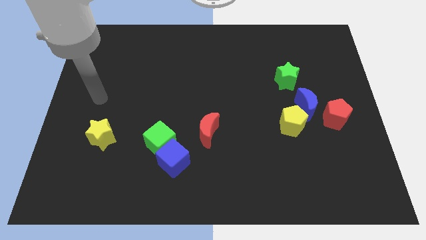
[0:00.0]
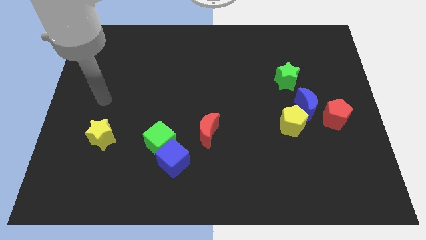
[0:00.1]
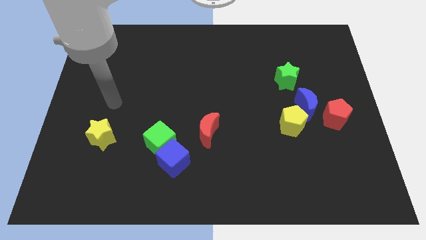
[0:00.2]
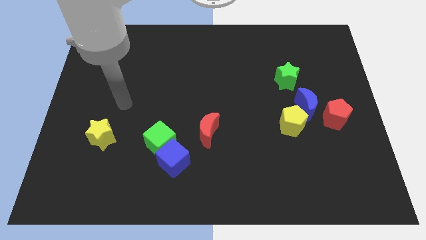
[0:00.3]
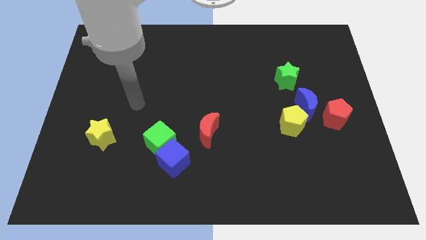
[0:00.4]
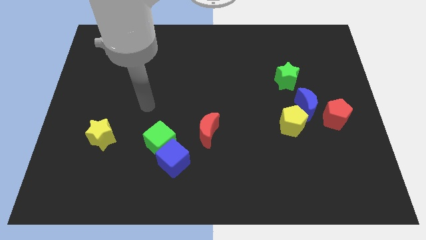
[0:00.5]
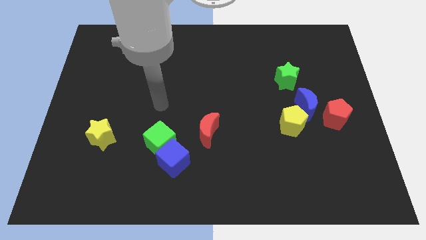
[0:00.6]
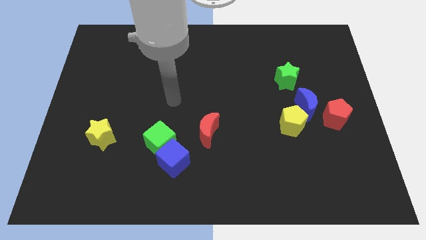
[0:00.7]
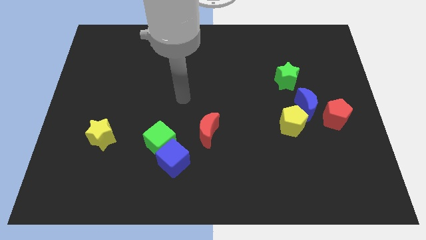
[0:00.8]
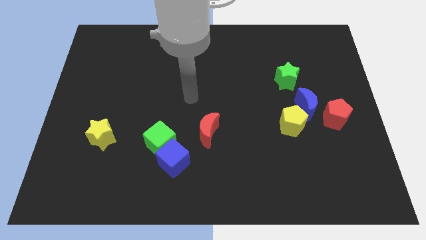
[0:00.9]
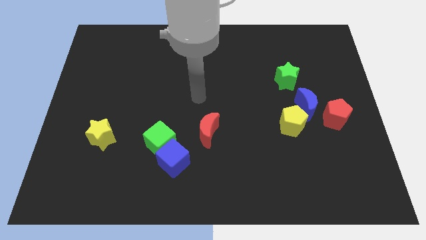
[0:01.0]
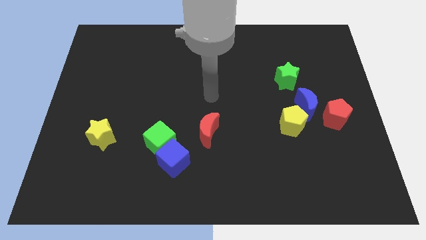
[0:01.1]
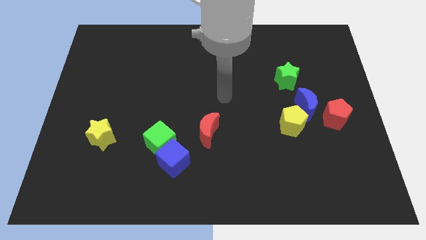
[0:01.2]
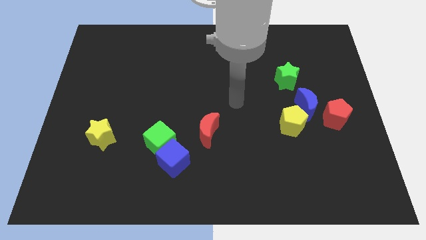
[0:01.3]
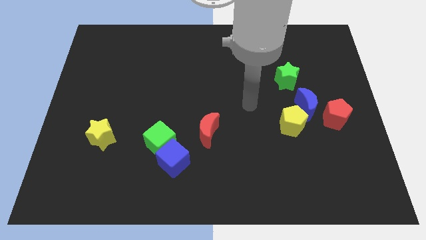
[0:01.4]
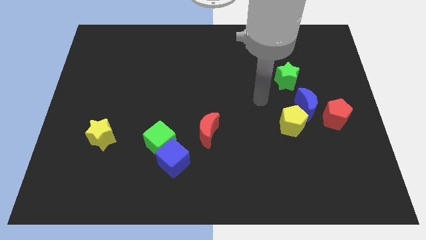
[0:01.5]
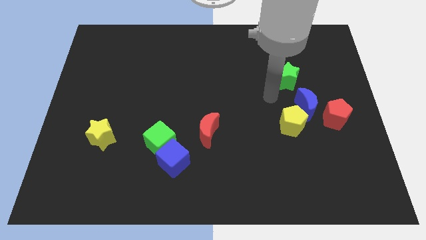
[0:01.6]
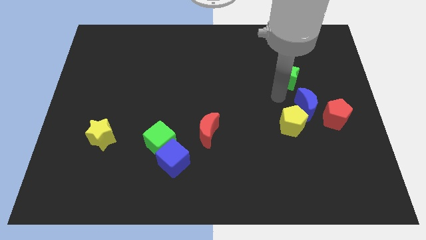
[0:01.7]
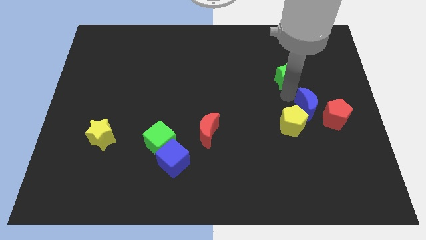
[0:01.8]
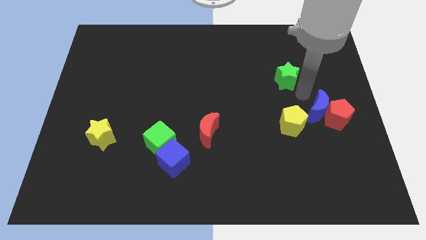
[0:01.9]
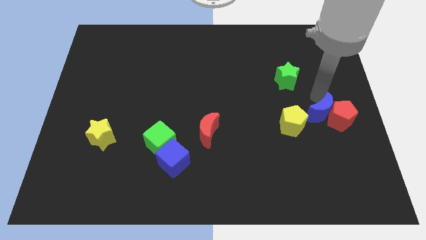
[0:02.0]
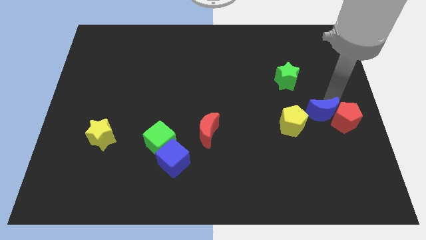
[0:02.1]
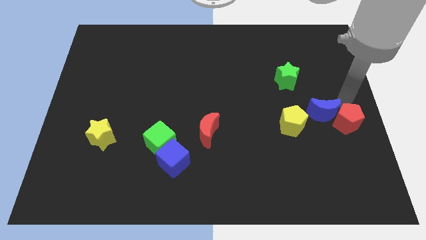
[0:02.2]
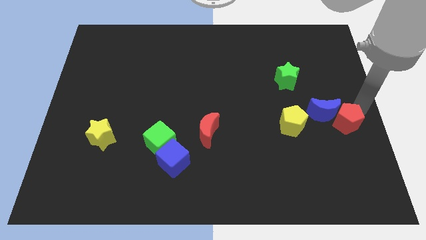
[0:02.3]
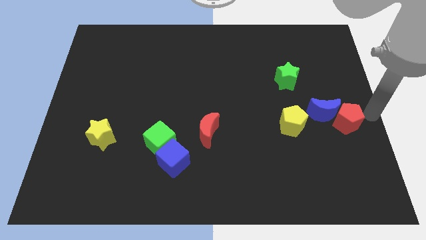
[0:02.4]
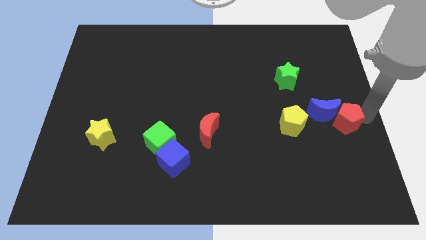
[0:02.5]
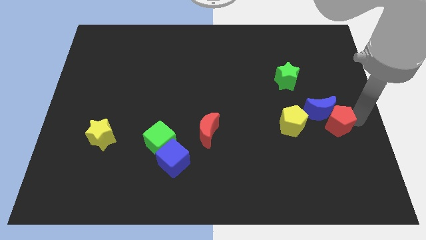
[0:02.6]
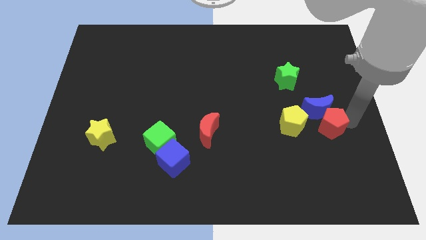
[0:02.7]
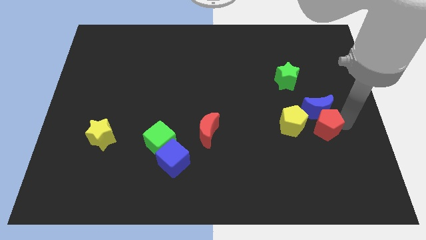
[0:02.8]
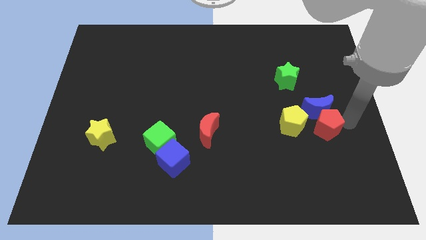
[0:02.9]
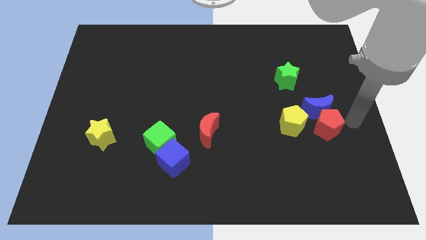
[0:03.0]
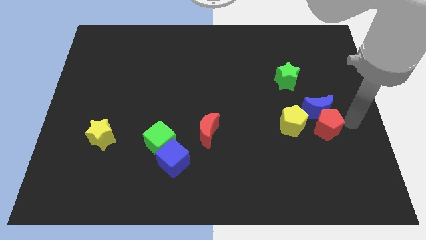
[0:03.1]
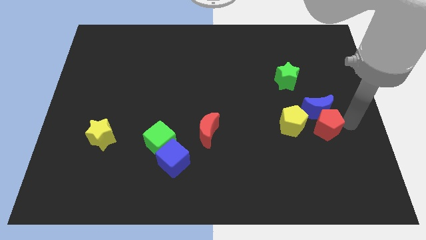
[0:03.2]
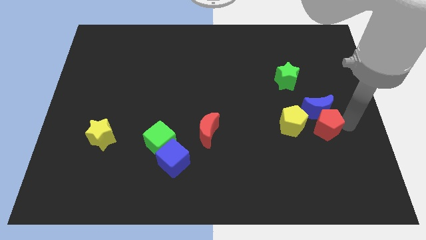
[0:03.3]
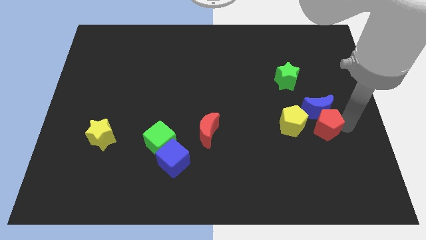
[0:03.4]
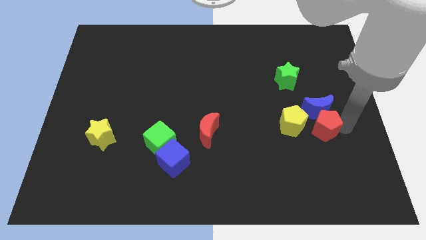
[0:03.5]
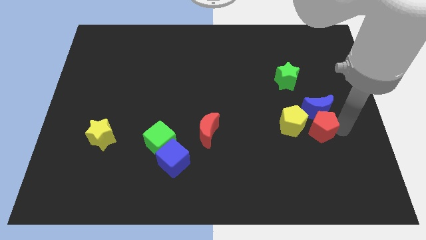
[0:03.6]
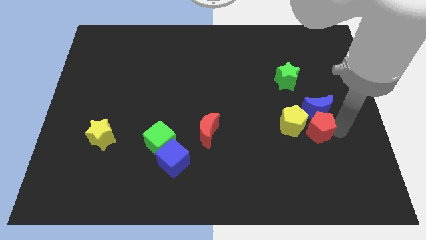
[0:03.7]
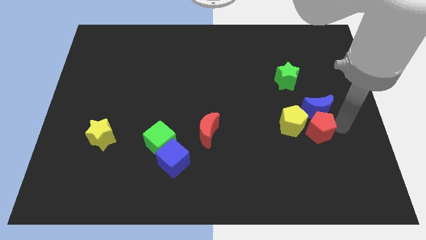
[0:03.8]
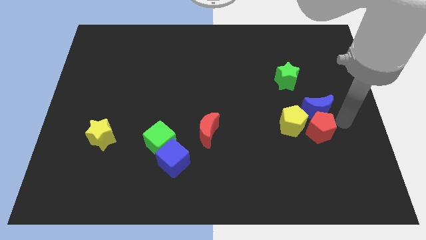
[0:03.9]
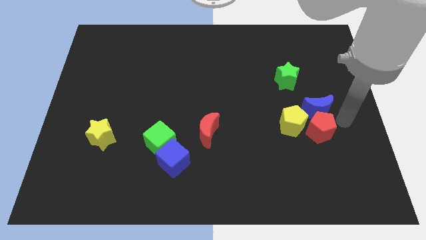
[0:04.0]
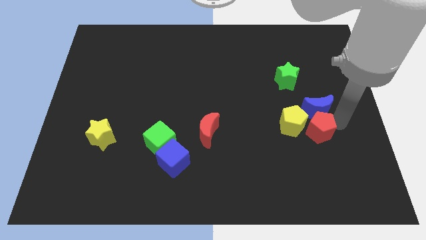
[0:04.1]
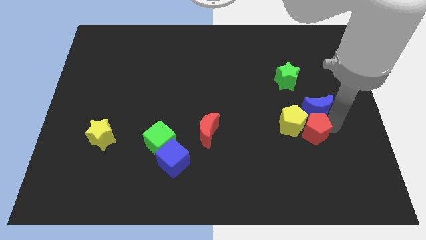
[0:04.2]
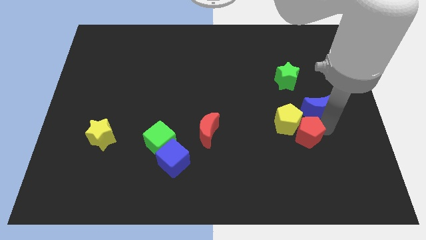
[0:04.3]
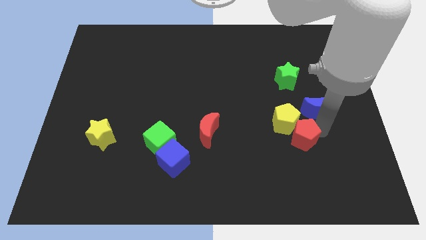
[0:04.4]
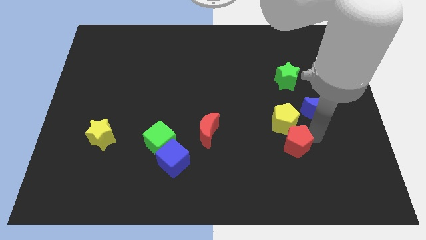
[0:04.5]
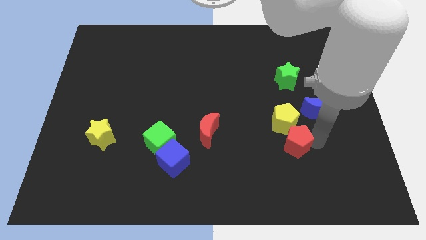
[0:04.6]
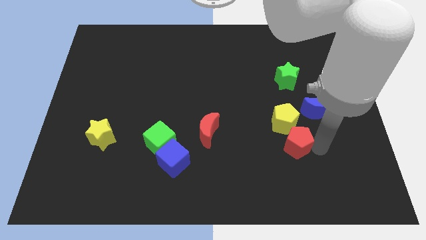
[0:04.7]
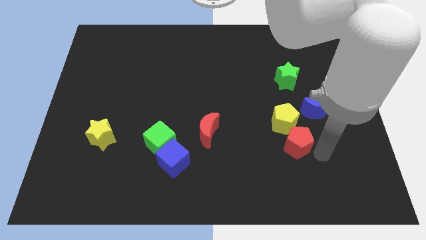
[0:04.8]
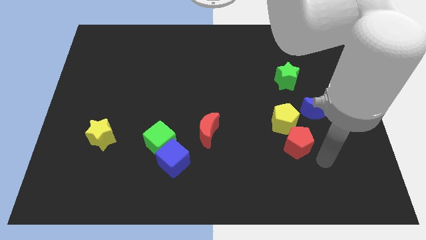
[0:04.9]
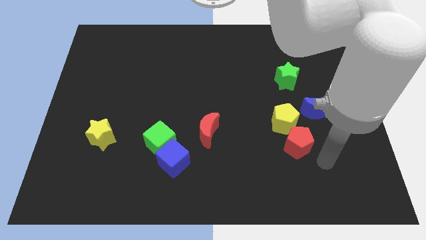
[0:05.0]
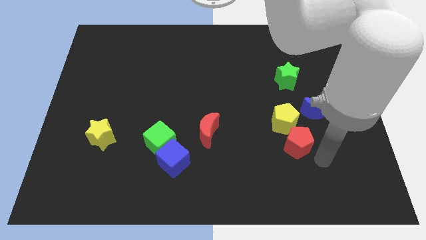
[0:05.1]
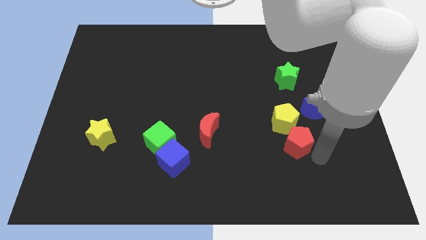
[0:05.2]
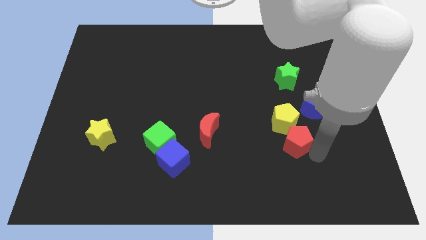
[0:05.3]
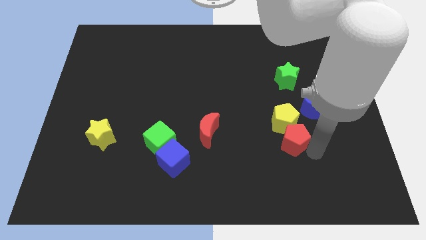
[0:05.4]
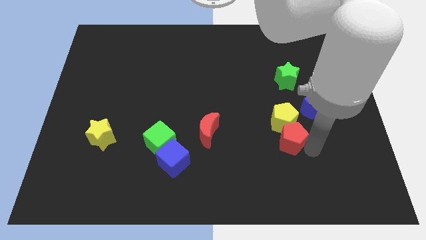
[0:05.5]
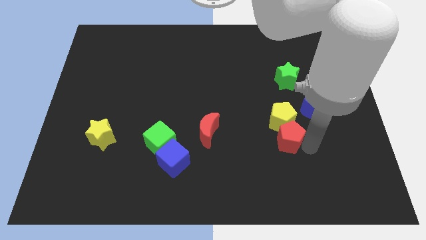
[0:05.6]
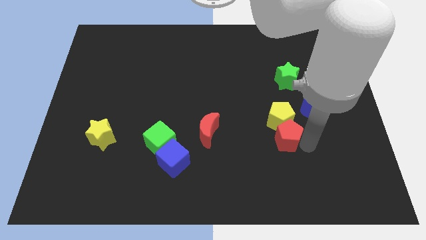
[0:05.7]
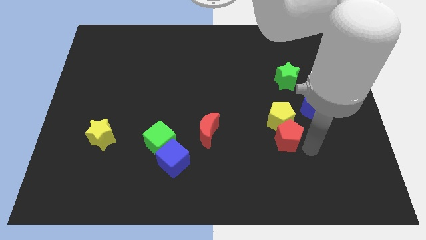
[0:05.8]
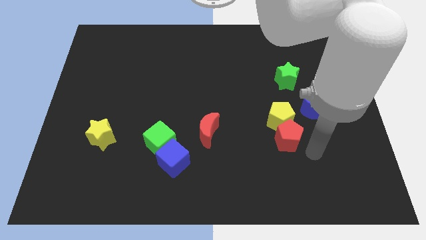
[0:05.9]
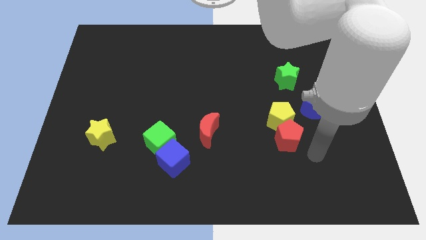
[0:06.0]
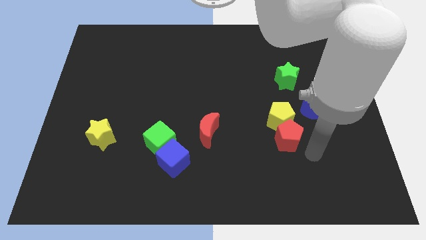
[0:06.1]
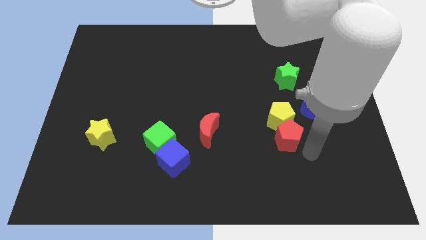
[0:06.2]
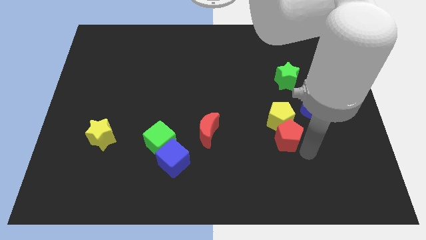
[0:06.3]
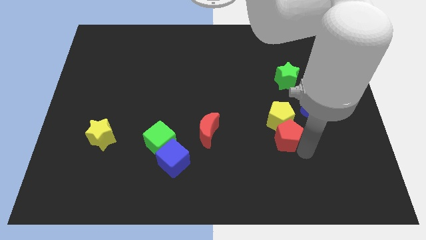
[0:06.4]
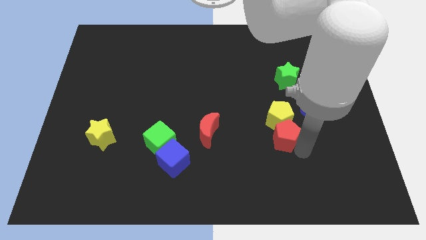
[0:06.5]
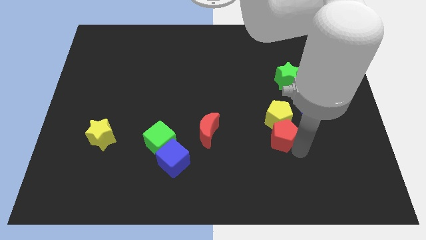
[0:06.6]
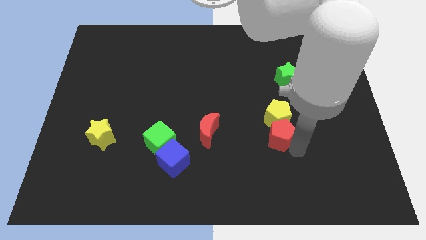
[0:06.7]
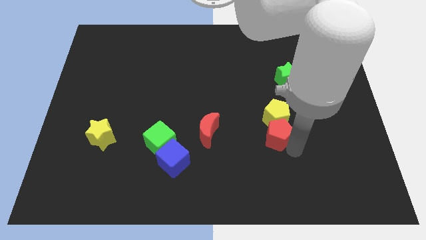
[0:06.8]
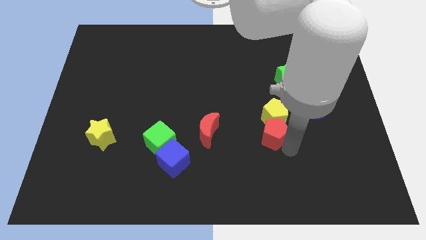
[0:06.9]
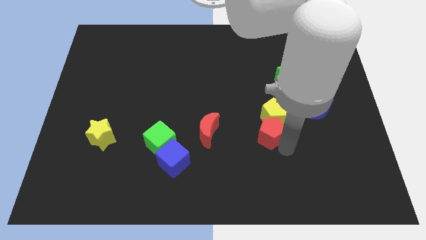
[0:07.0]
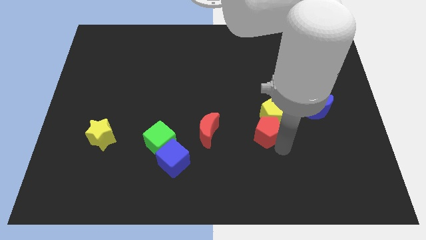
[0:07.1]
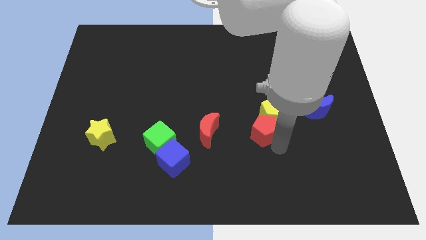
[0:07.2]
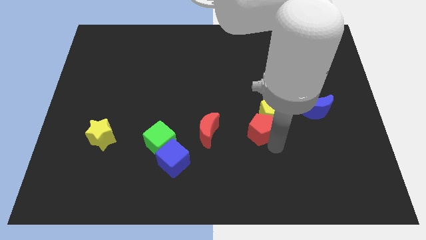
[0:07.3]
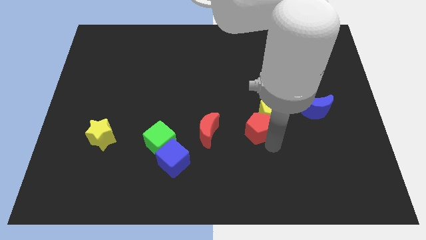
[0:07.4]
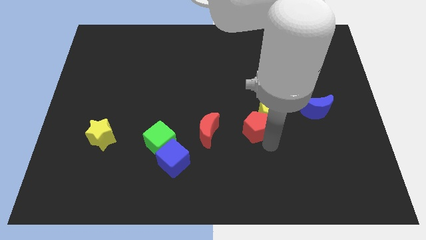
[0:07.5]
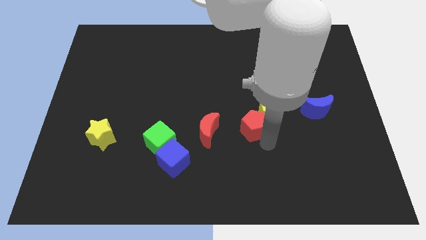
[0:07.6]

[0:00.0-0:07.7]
push the red pentagon to the middle of the board
